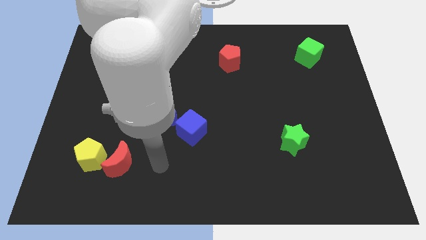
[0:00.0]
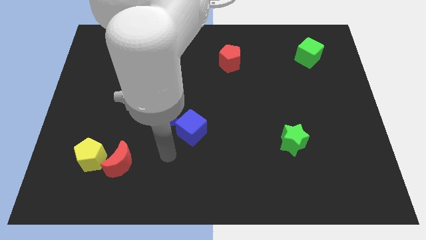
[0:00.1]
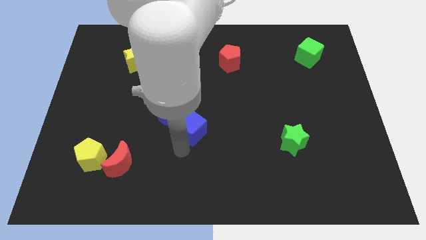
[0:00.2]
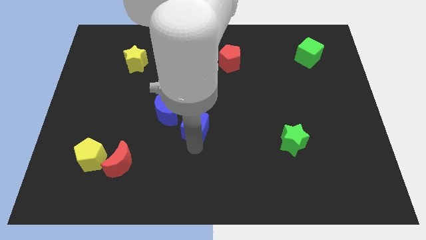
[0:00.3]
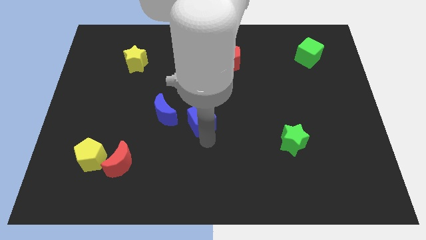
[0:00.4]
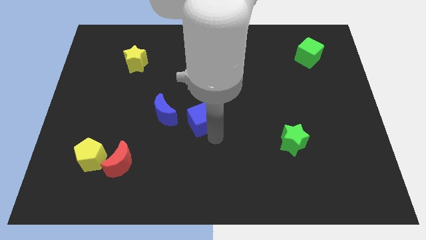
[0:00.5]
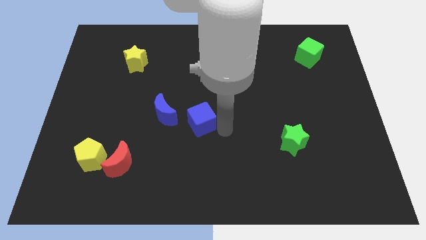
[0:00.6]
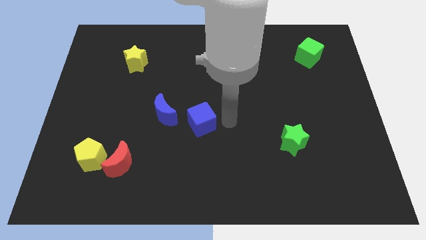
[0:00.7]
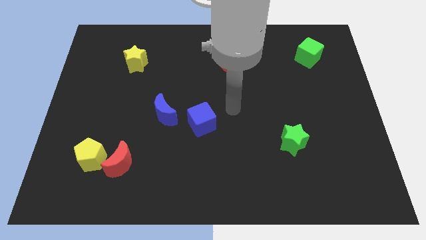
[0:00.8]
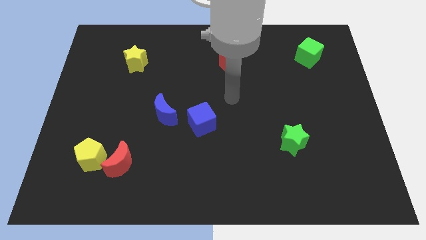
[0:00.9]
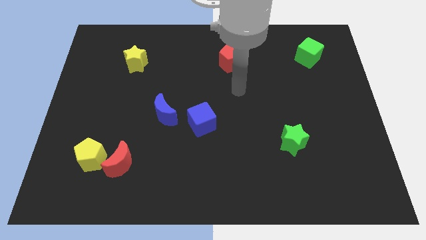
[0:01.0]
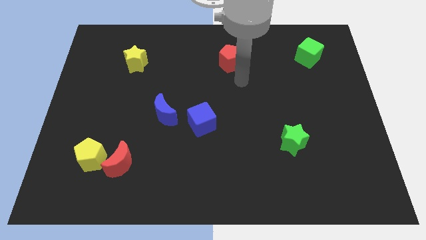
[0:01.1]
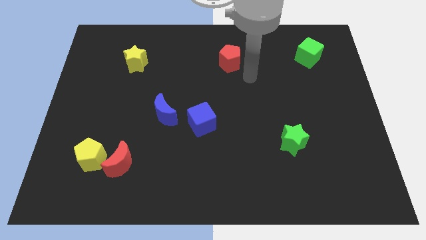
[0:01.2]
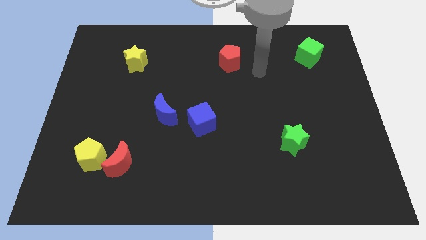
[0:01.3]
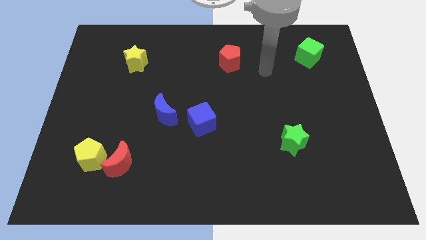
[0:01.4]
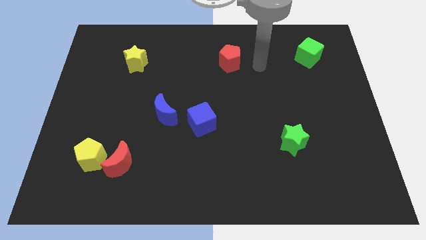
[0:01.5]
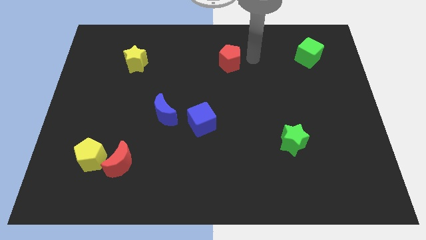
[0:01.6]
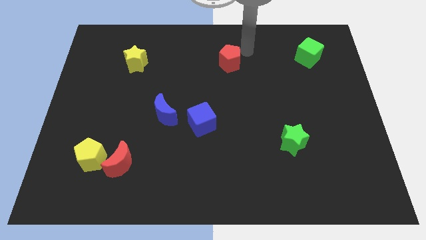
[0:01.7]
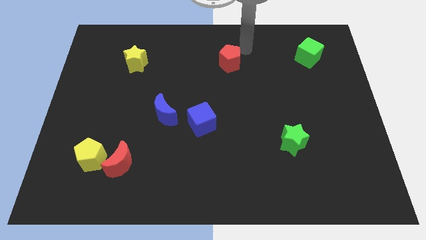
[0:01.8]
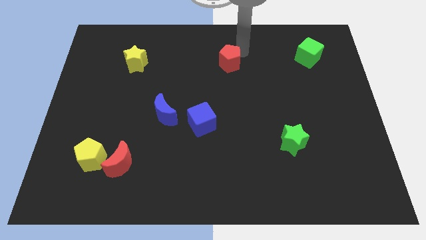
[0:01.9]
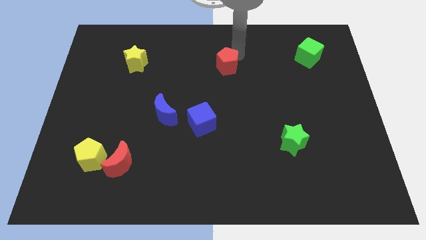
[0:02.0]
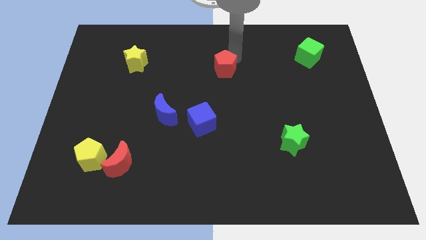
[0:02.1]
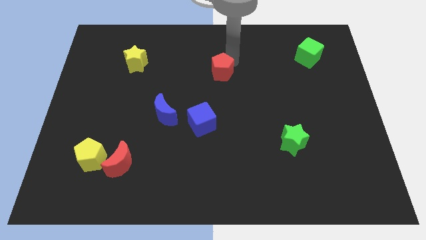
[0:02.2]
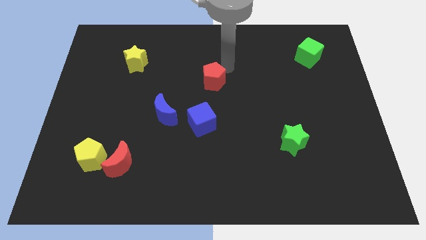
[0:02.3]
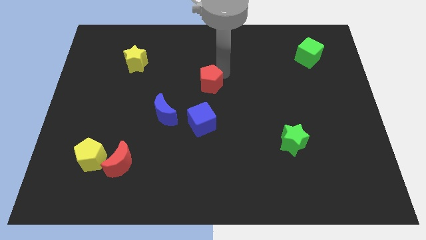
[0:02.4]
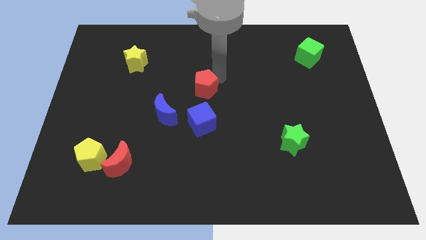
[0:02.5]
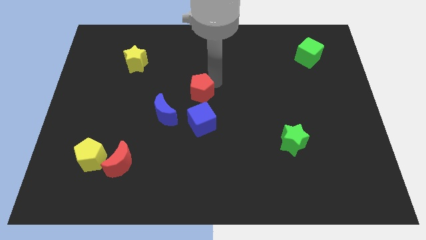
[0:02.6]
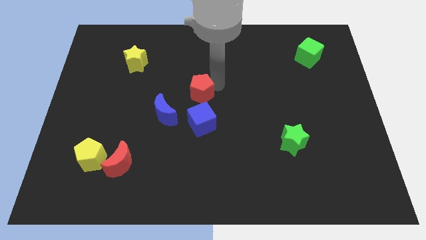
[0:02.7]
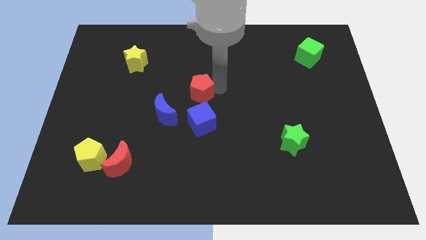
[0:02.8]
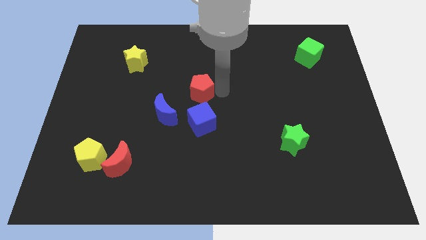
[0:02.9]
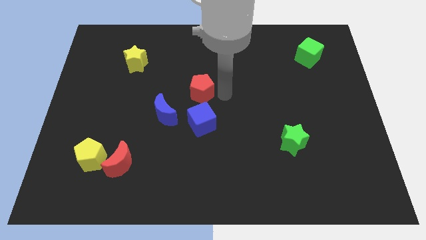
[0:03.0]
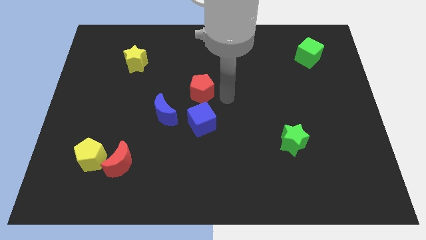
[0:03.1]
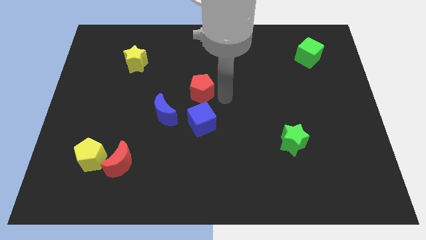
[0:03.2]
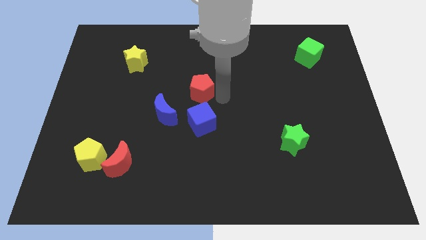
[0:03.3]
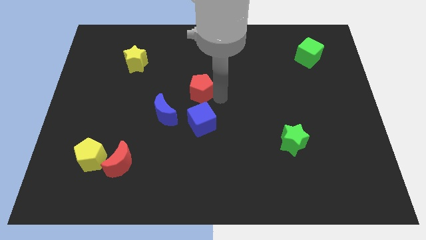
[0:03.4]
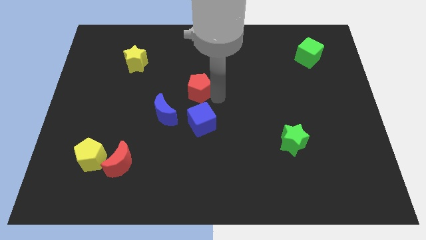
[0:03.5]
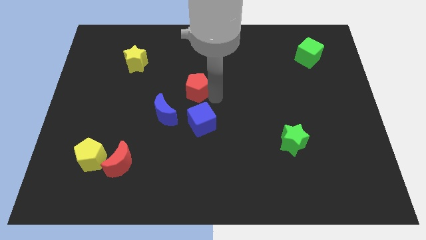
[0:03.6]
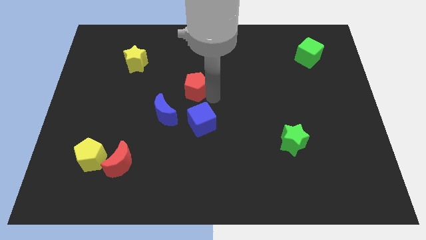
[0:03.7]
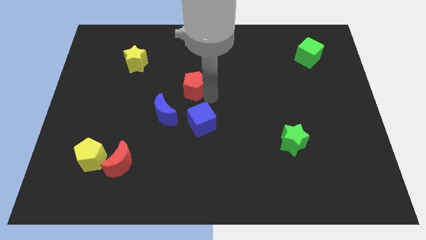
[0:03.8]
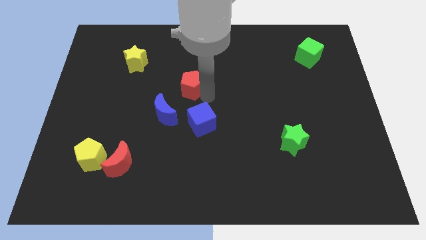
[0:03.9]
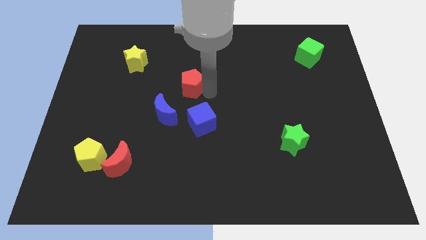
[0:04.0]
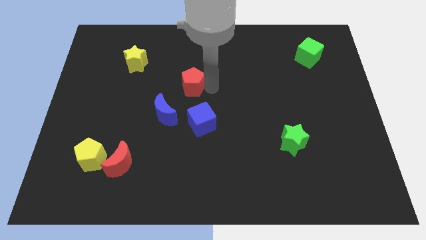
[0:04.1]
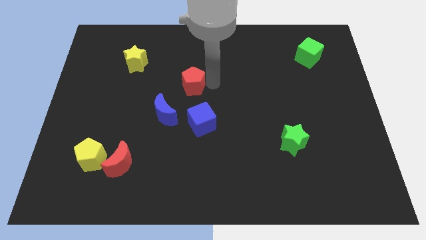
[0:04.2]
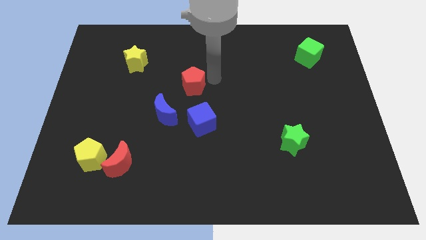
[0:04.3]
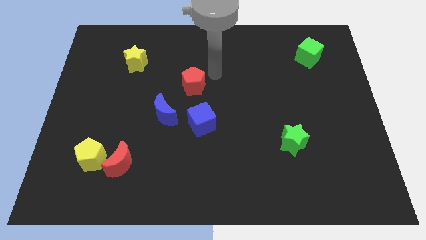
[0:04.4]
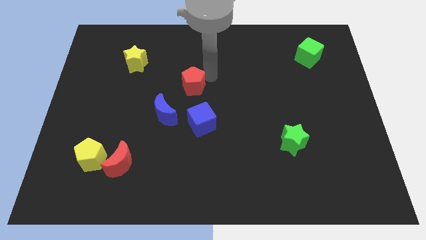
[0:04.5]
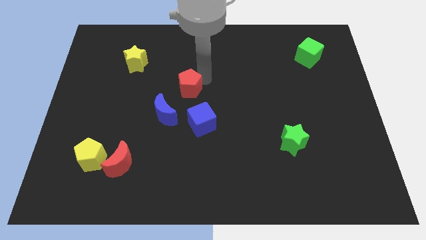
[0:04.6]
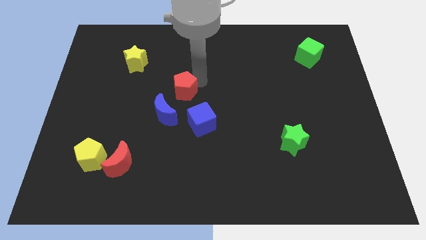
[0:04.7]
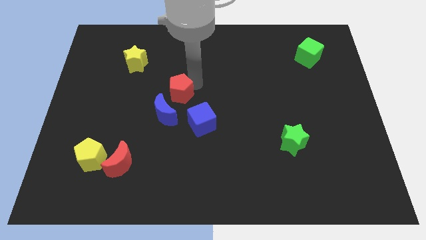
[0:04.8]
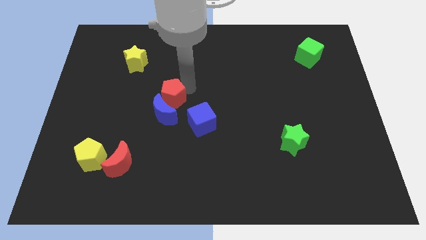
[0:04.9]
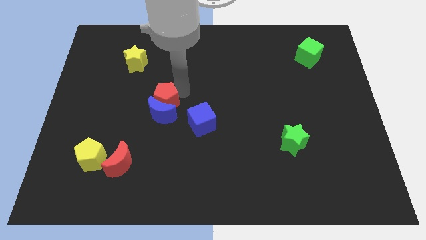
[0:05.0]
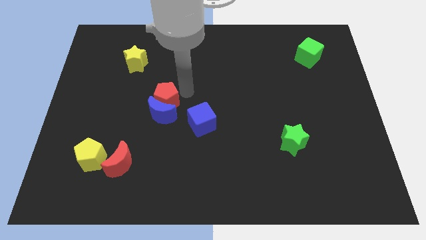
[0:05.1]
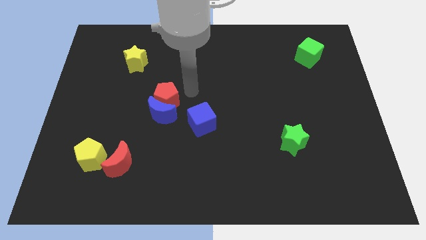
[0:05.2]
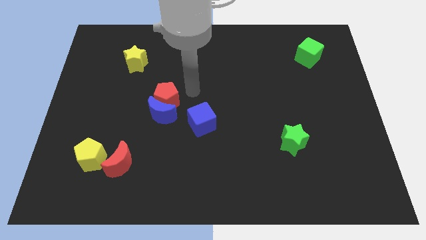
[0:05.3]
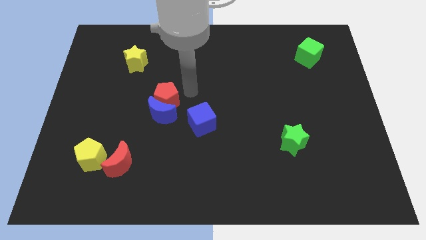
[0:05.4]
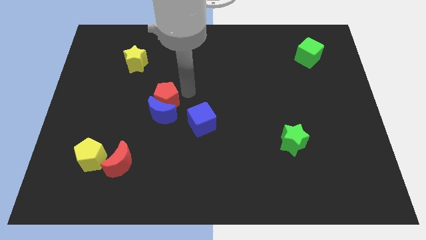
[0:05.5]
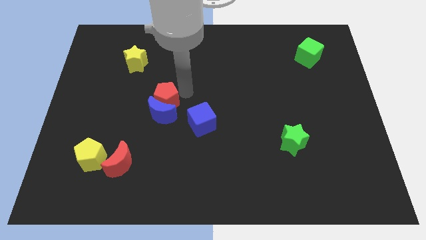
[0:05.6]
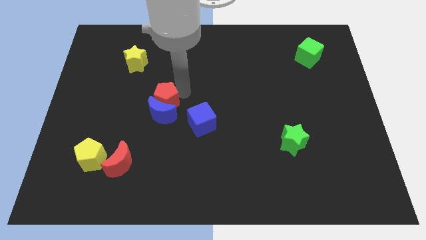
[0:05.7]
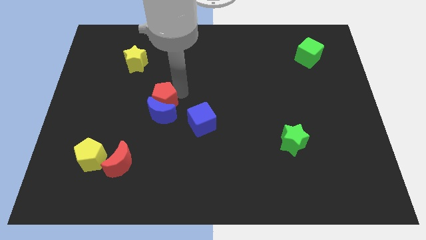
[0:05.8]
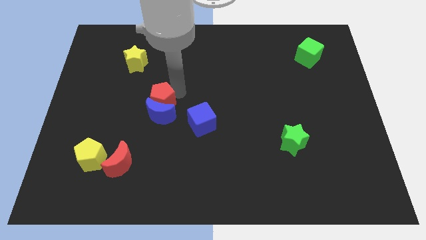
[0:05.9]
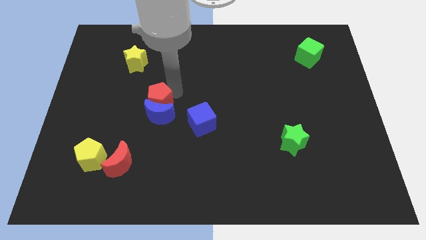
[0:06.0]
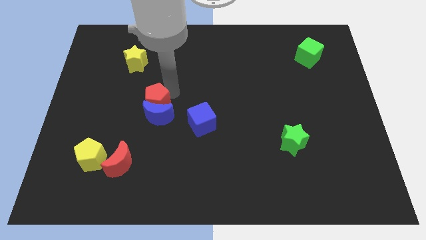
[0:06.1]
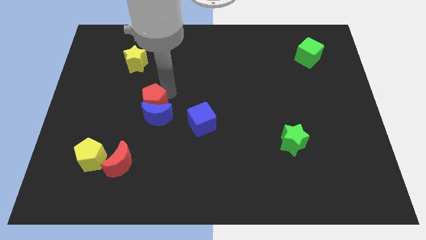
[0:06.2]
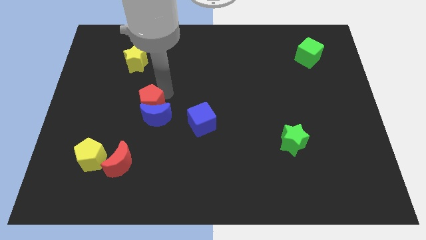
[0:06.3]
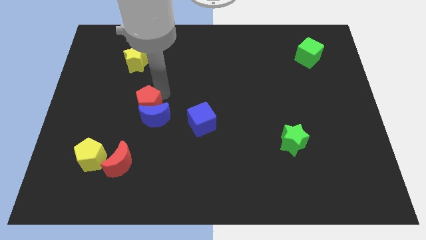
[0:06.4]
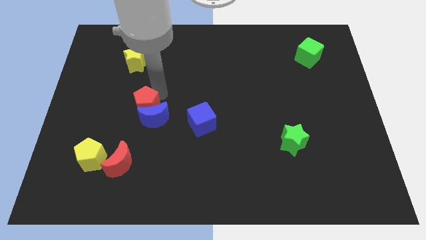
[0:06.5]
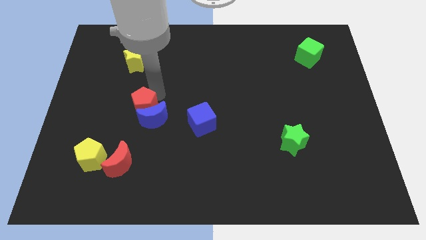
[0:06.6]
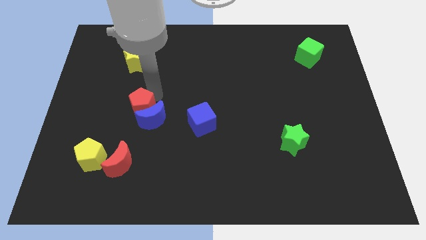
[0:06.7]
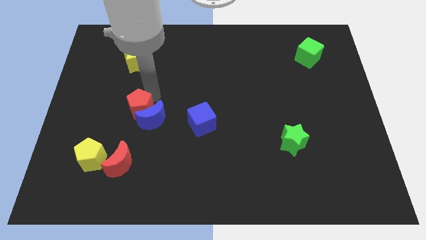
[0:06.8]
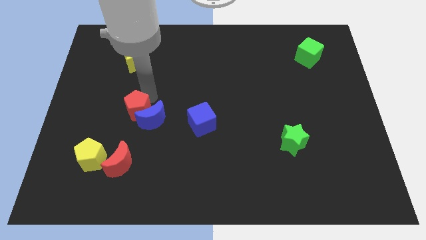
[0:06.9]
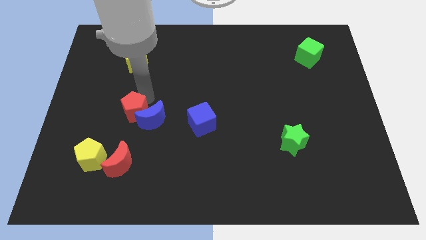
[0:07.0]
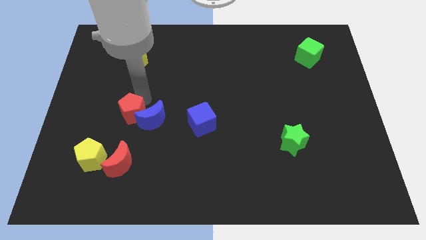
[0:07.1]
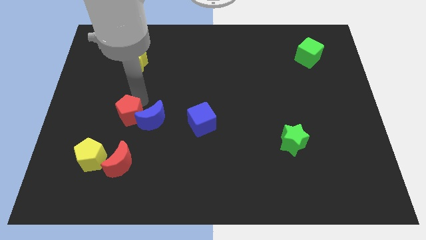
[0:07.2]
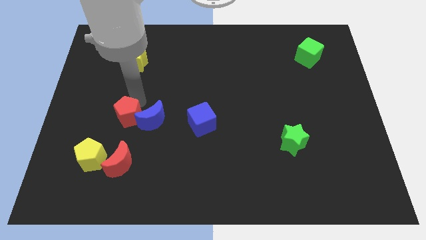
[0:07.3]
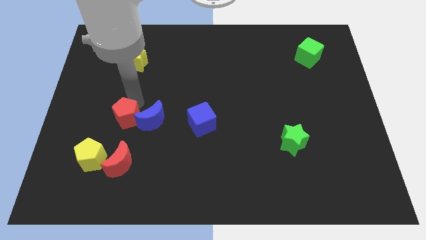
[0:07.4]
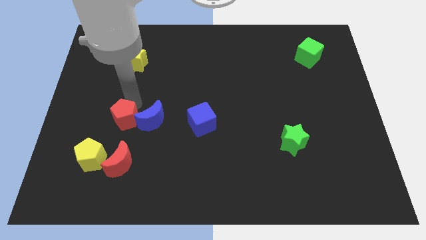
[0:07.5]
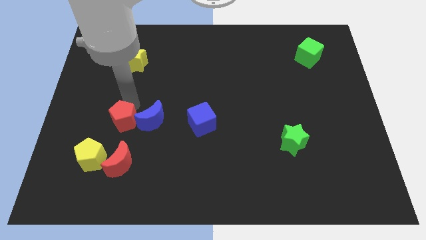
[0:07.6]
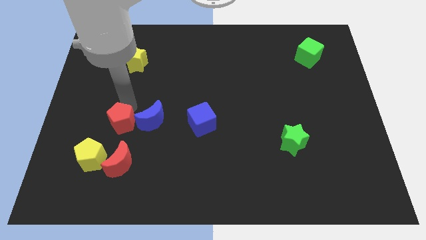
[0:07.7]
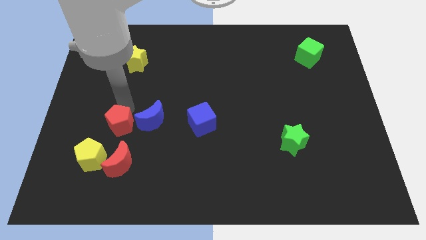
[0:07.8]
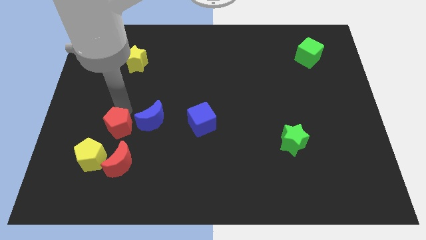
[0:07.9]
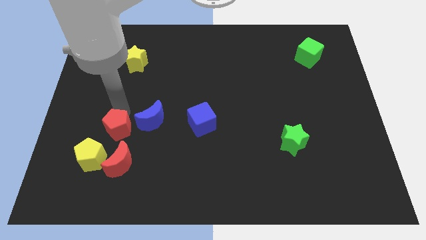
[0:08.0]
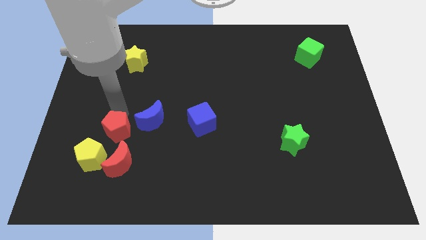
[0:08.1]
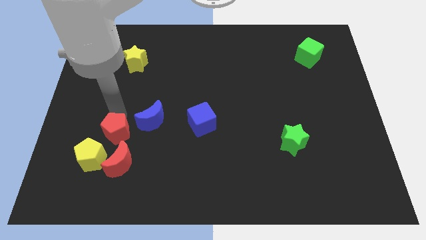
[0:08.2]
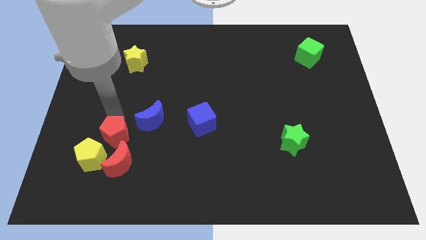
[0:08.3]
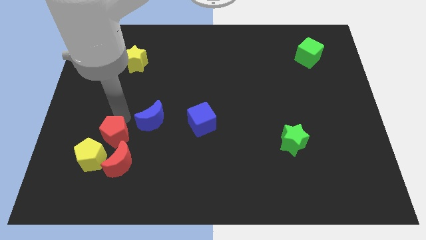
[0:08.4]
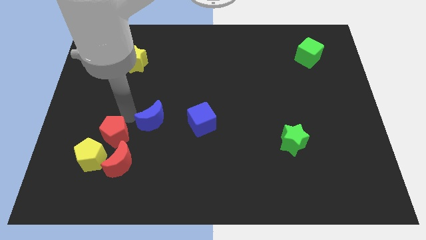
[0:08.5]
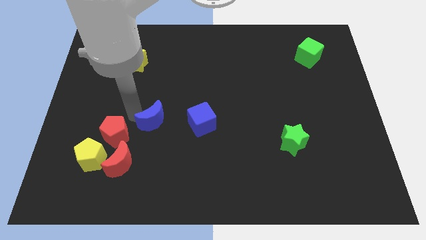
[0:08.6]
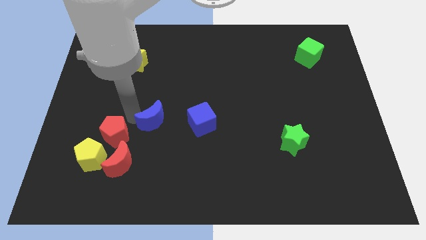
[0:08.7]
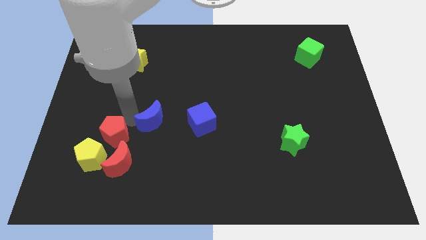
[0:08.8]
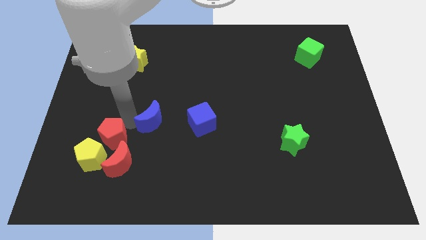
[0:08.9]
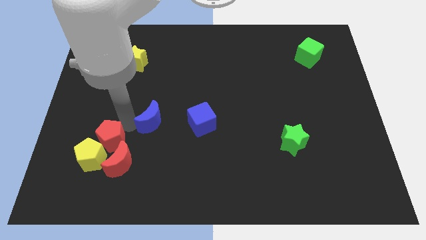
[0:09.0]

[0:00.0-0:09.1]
push the red pentagon to the yellow pentagon
